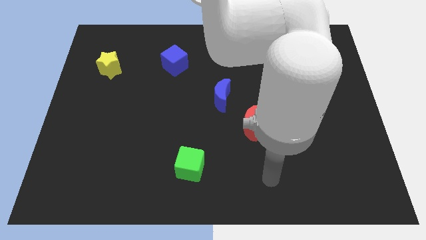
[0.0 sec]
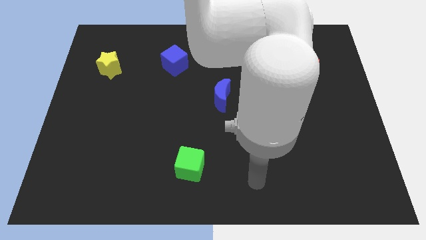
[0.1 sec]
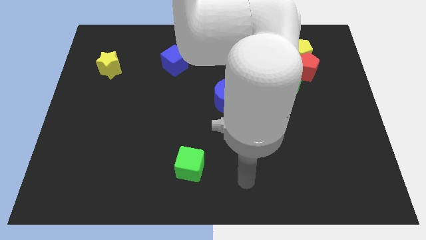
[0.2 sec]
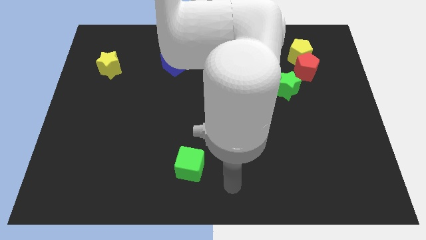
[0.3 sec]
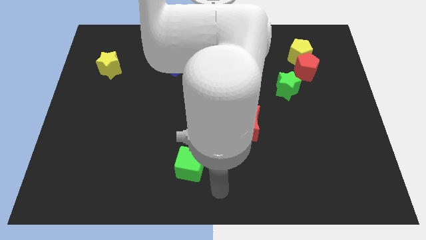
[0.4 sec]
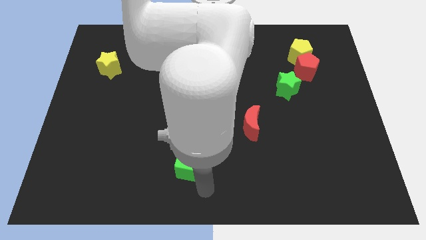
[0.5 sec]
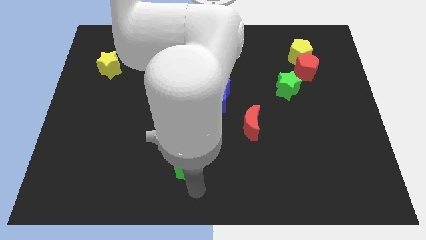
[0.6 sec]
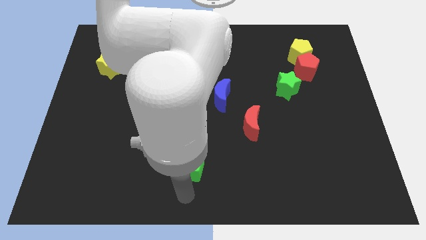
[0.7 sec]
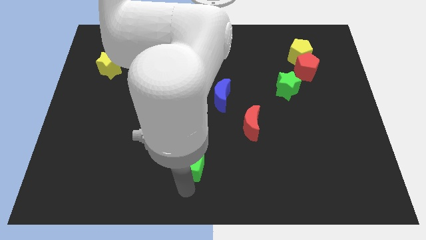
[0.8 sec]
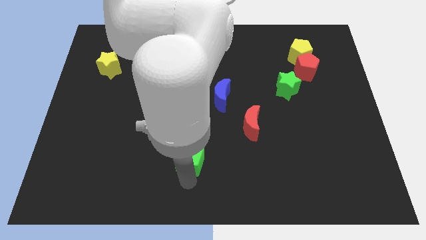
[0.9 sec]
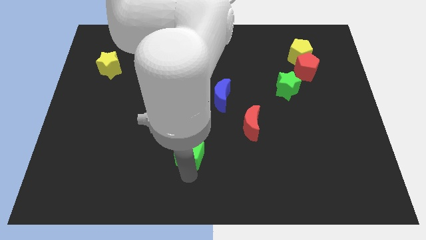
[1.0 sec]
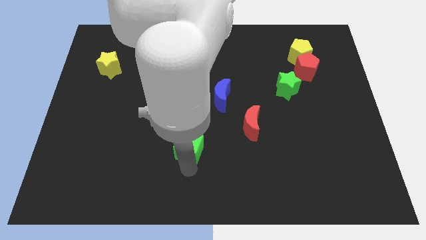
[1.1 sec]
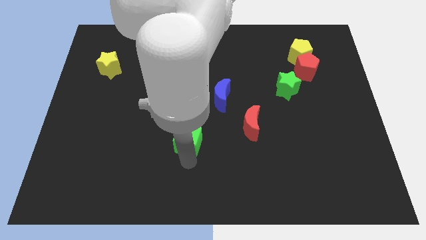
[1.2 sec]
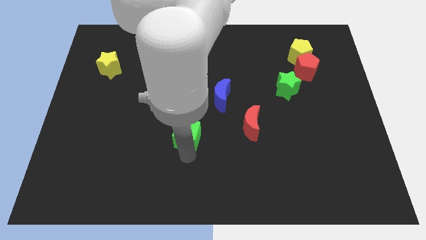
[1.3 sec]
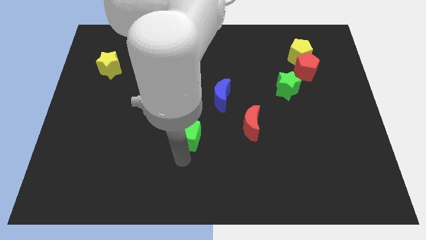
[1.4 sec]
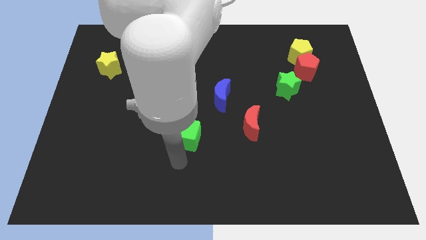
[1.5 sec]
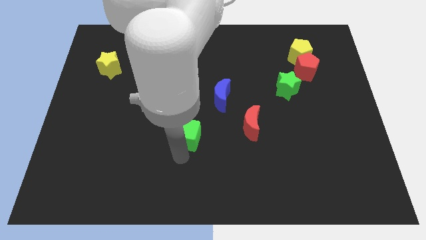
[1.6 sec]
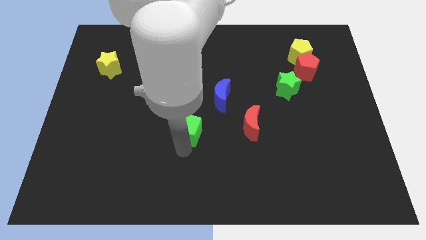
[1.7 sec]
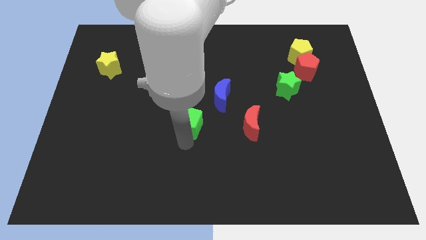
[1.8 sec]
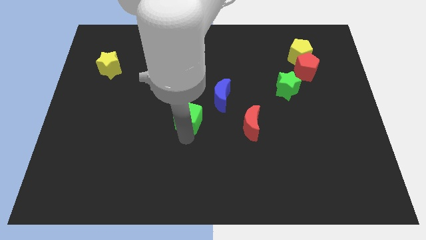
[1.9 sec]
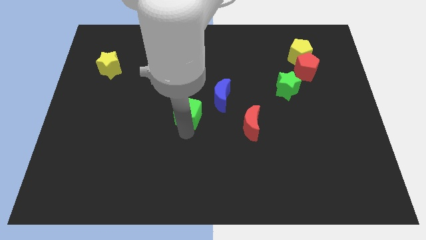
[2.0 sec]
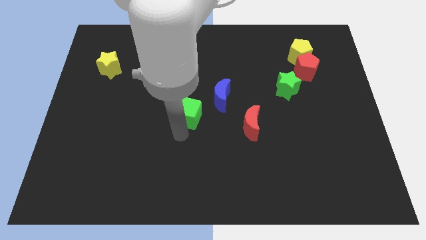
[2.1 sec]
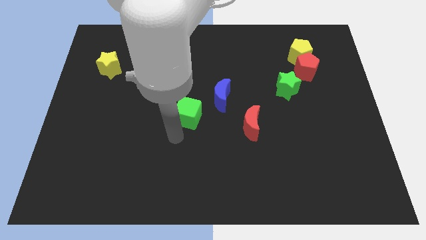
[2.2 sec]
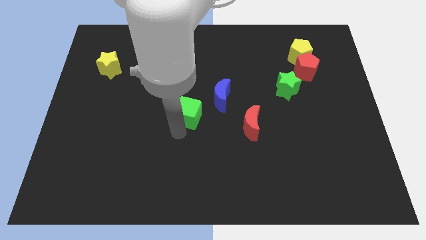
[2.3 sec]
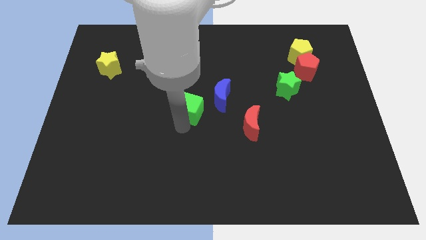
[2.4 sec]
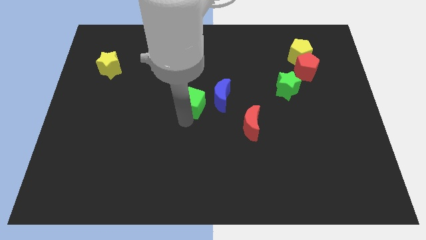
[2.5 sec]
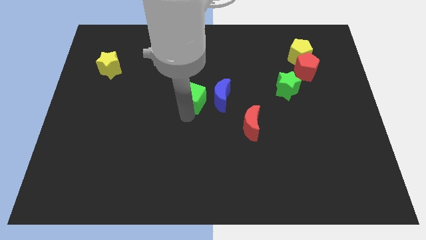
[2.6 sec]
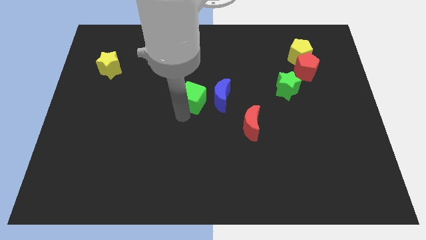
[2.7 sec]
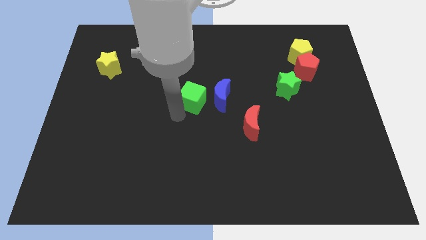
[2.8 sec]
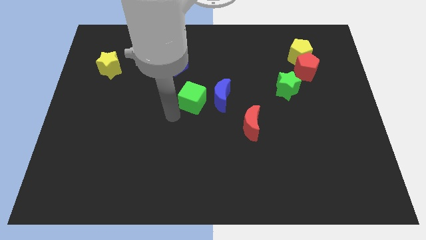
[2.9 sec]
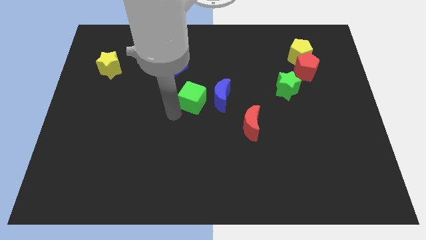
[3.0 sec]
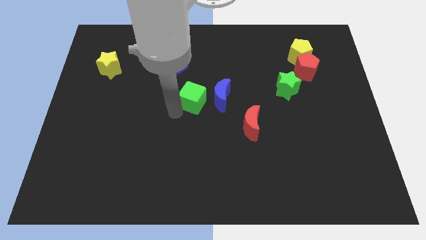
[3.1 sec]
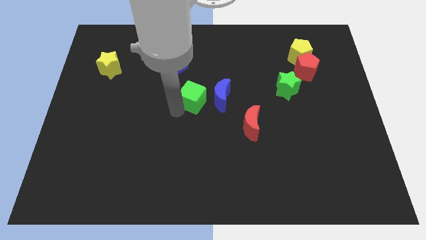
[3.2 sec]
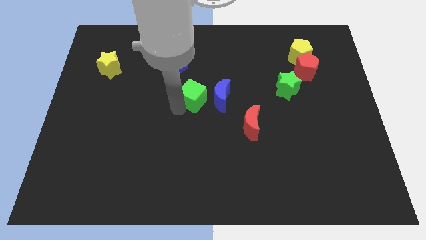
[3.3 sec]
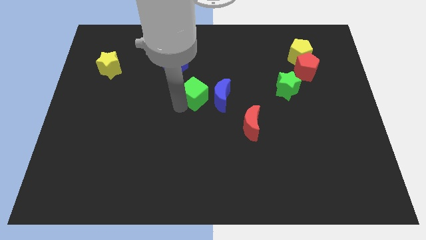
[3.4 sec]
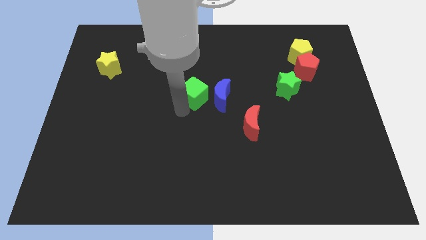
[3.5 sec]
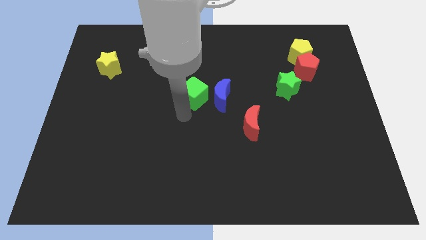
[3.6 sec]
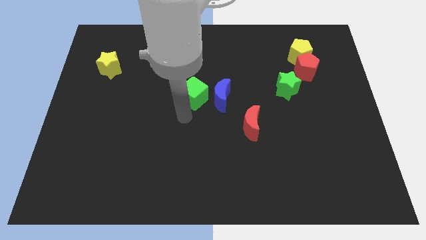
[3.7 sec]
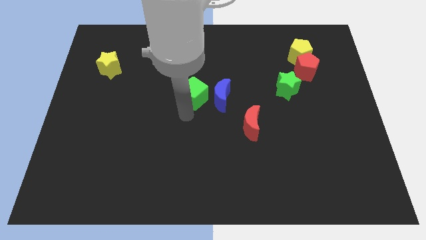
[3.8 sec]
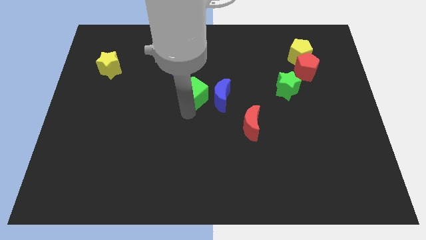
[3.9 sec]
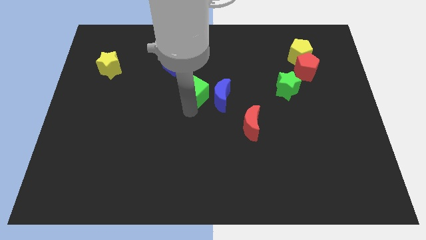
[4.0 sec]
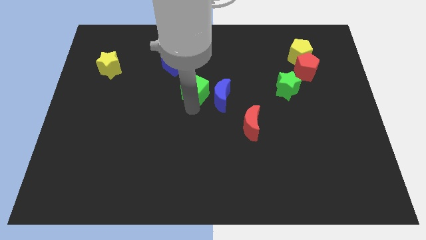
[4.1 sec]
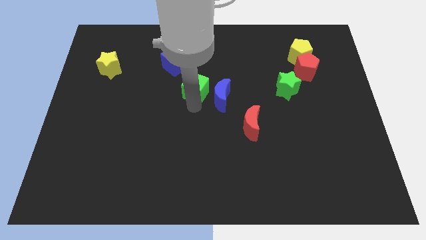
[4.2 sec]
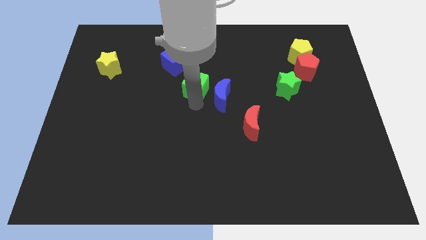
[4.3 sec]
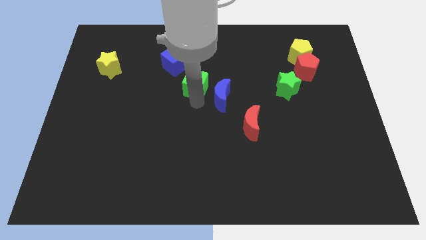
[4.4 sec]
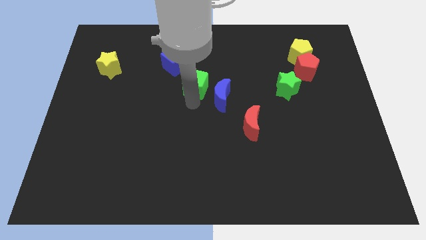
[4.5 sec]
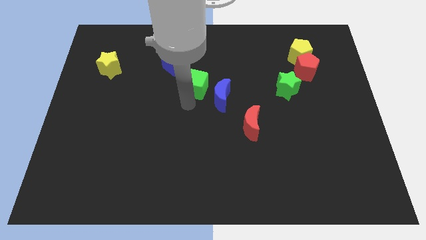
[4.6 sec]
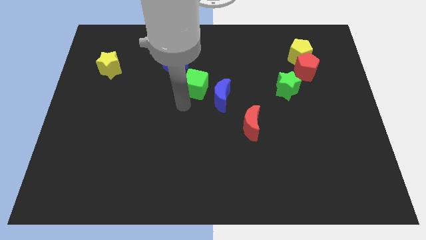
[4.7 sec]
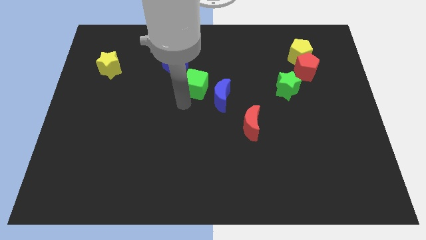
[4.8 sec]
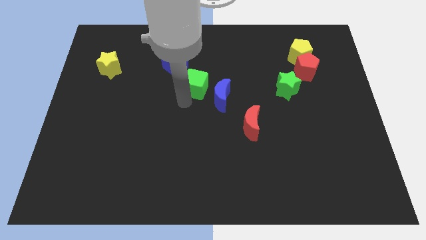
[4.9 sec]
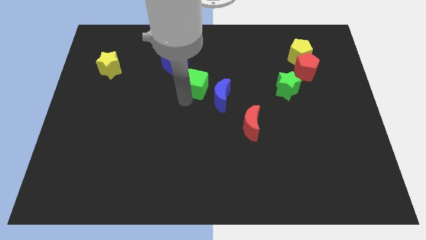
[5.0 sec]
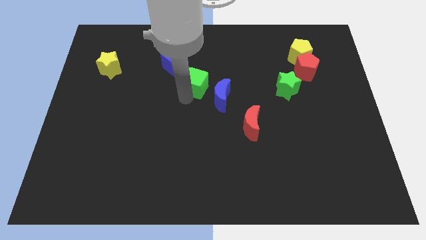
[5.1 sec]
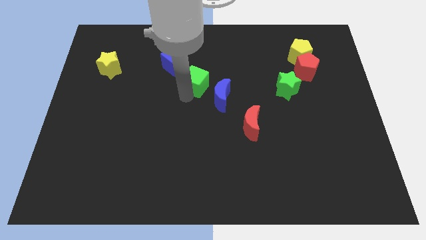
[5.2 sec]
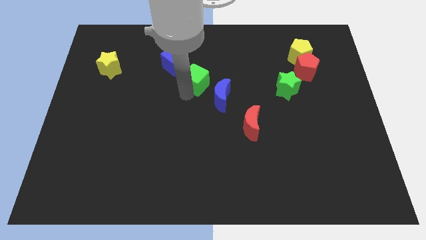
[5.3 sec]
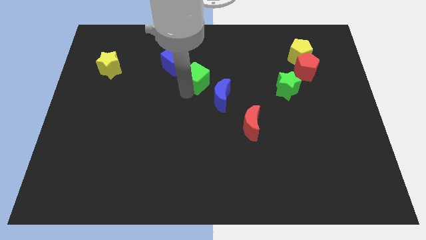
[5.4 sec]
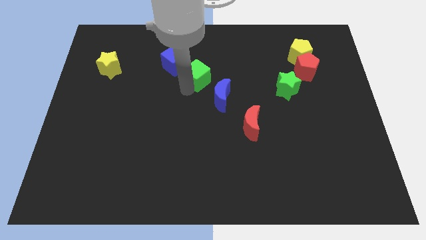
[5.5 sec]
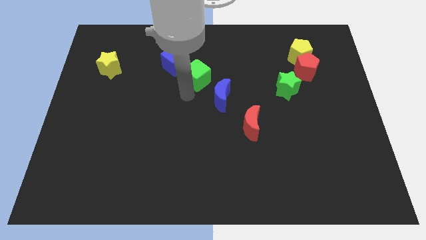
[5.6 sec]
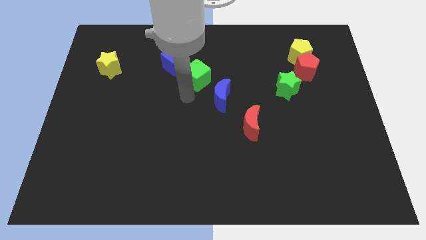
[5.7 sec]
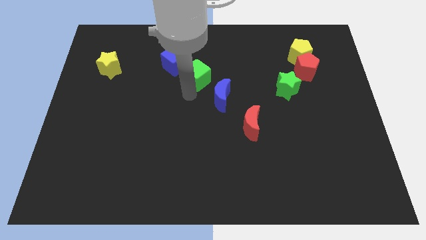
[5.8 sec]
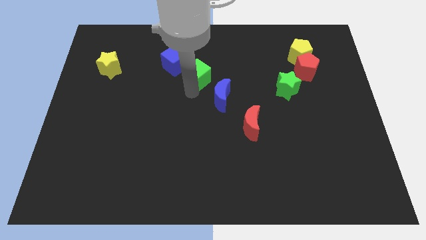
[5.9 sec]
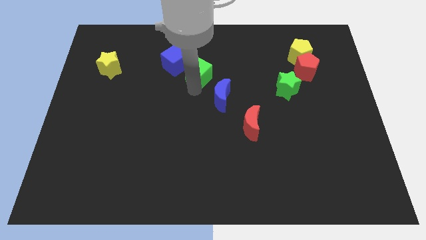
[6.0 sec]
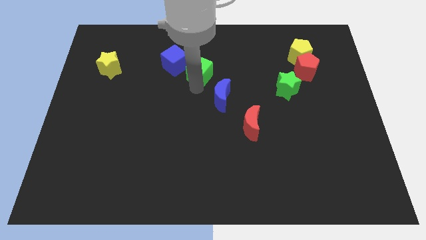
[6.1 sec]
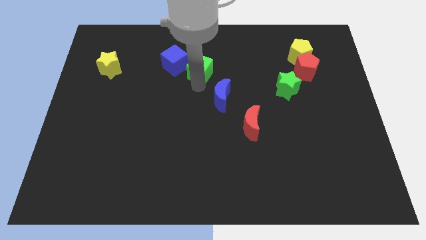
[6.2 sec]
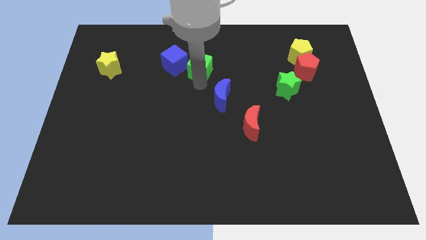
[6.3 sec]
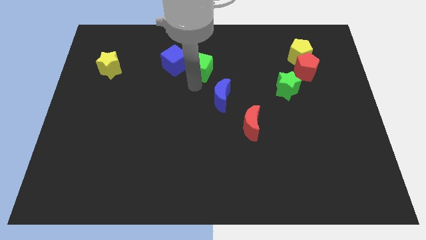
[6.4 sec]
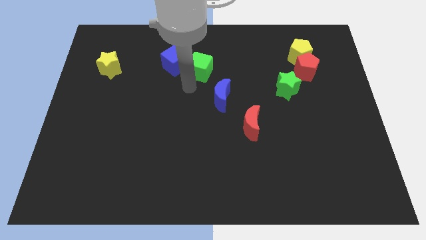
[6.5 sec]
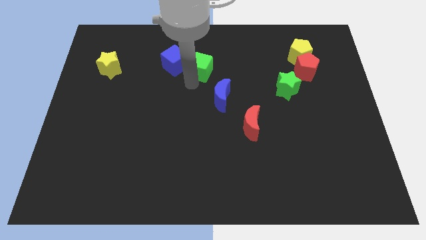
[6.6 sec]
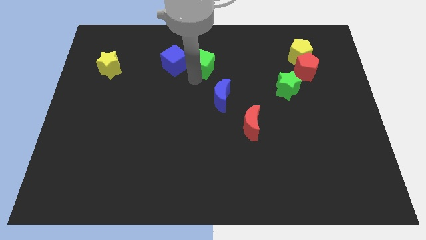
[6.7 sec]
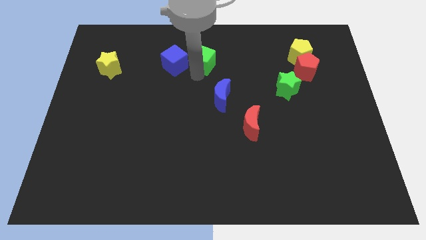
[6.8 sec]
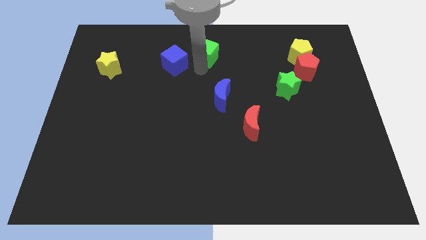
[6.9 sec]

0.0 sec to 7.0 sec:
put the green cube to the top side

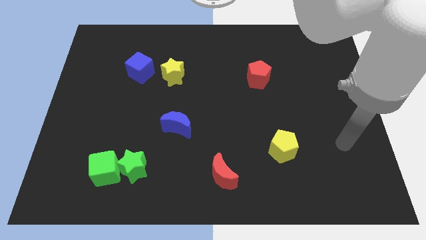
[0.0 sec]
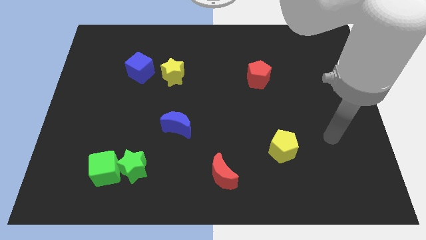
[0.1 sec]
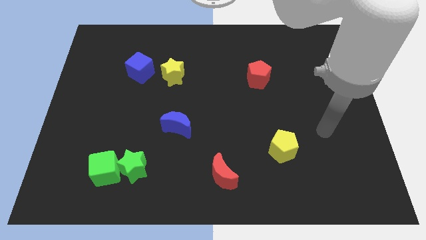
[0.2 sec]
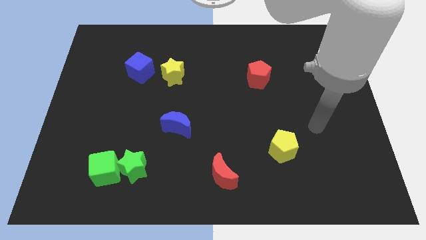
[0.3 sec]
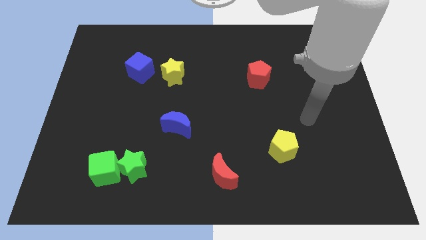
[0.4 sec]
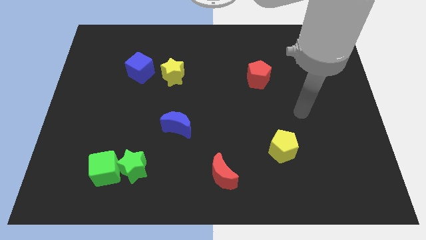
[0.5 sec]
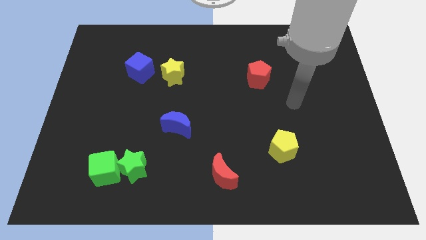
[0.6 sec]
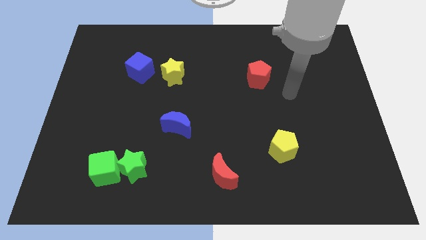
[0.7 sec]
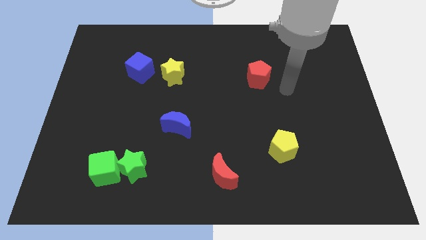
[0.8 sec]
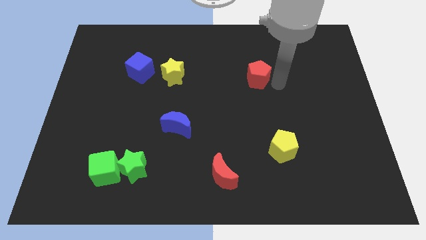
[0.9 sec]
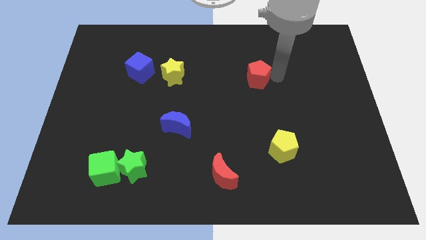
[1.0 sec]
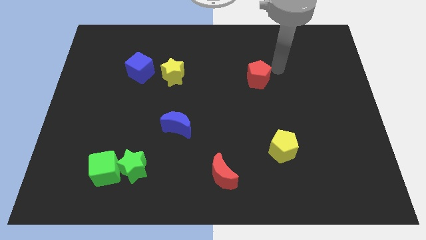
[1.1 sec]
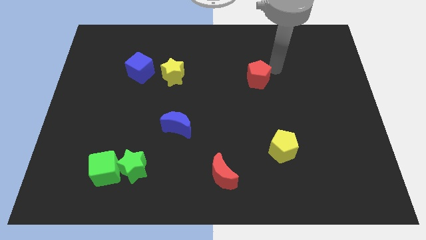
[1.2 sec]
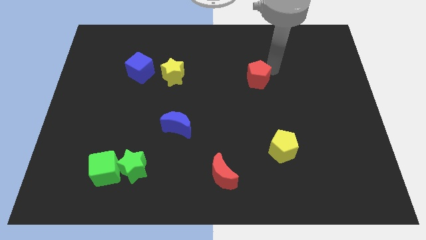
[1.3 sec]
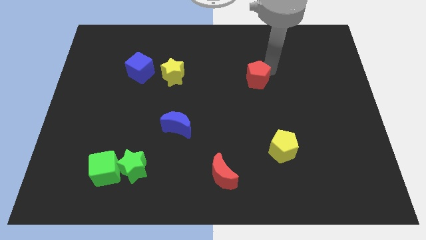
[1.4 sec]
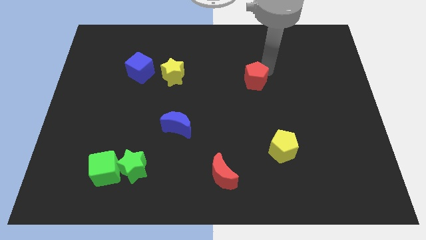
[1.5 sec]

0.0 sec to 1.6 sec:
put the red pentagon to the center of the board
